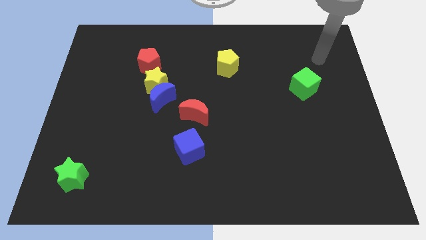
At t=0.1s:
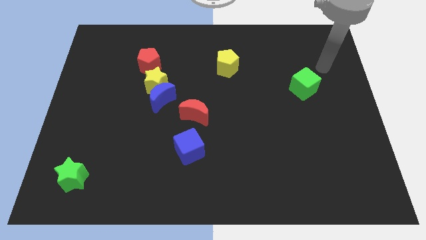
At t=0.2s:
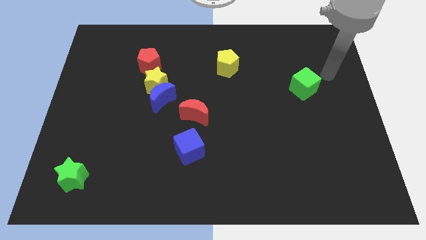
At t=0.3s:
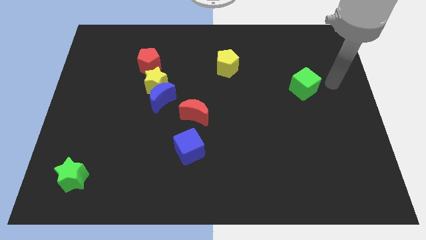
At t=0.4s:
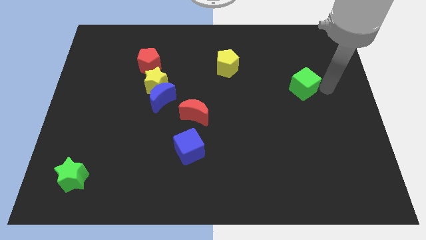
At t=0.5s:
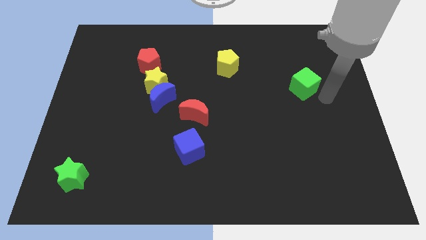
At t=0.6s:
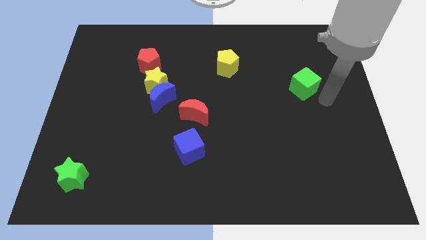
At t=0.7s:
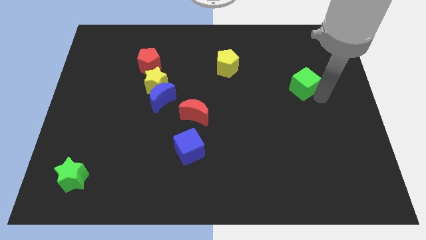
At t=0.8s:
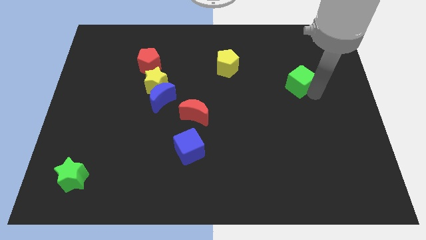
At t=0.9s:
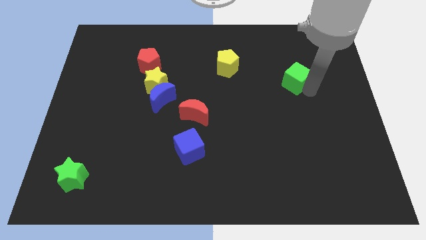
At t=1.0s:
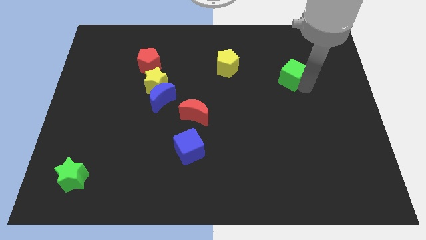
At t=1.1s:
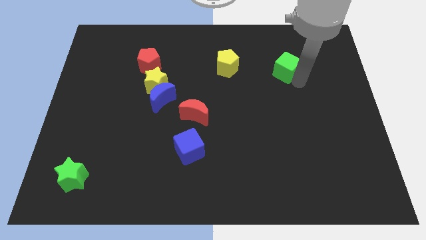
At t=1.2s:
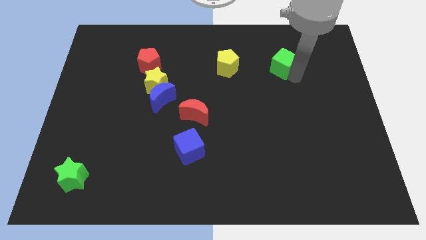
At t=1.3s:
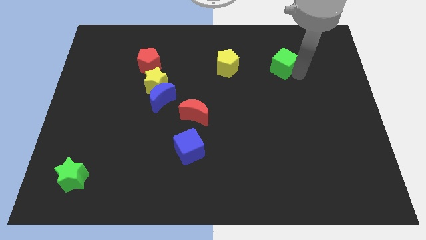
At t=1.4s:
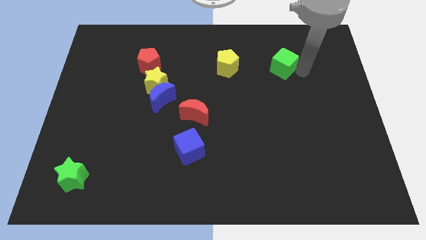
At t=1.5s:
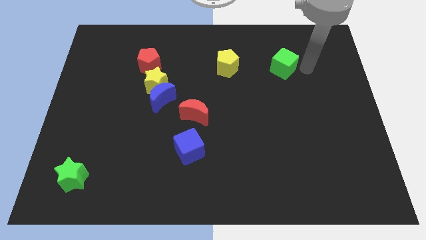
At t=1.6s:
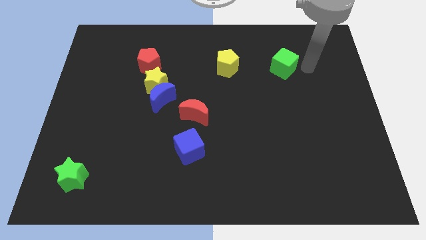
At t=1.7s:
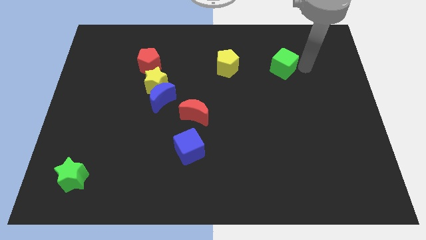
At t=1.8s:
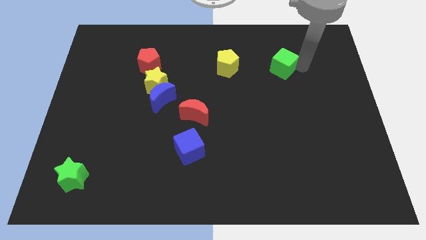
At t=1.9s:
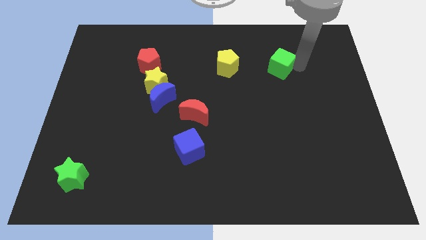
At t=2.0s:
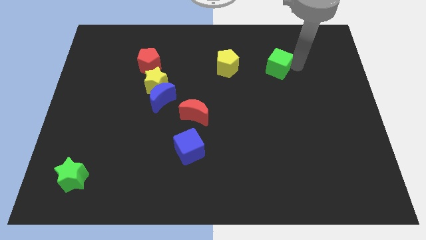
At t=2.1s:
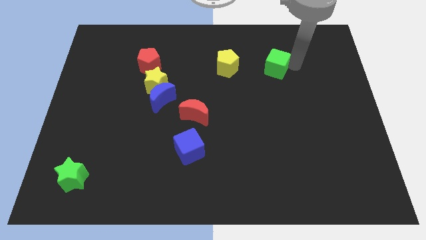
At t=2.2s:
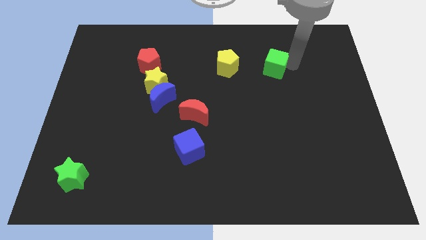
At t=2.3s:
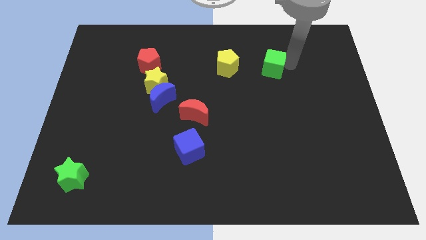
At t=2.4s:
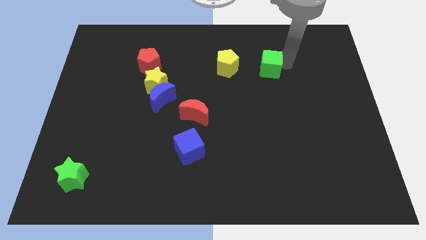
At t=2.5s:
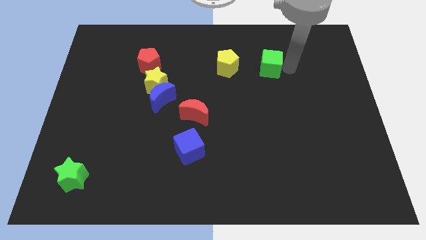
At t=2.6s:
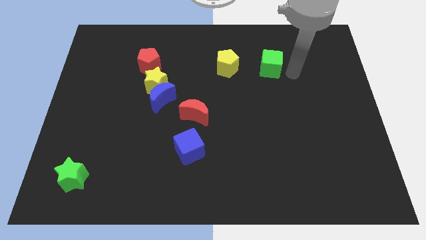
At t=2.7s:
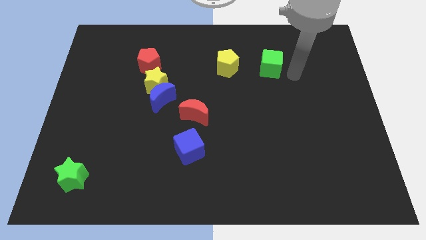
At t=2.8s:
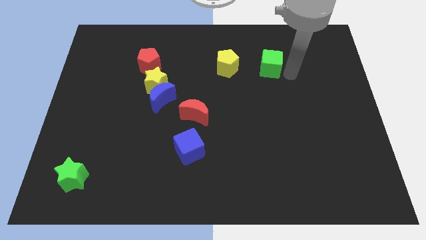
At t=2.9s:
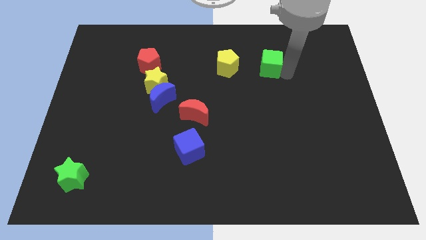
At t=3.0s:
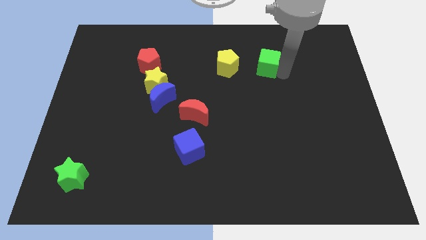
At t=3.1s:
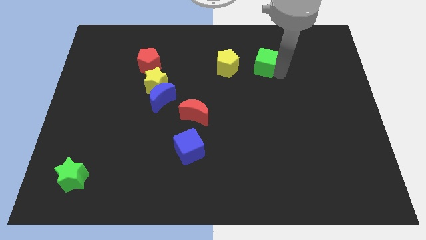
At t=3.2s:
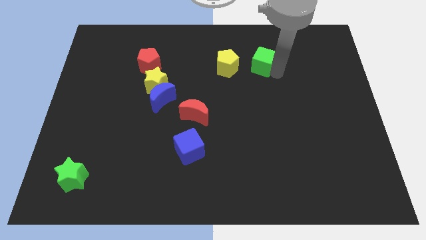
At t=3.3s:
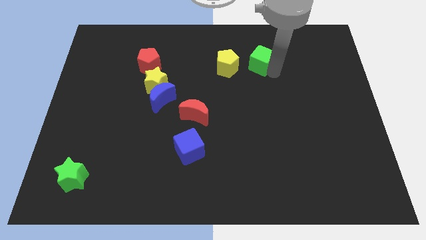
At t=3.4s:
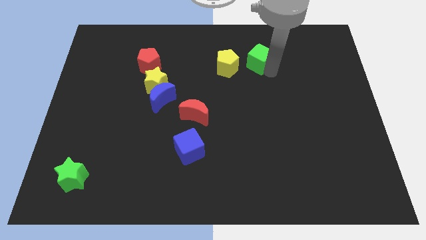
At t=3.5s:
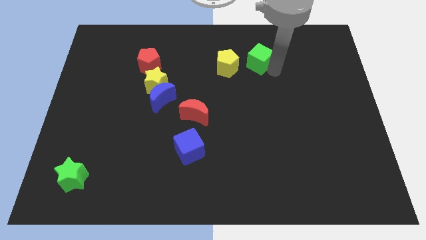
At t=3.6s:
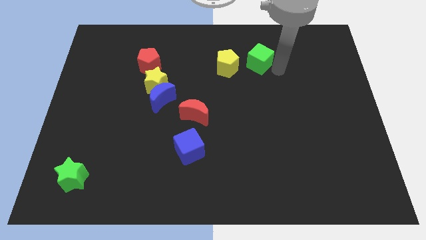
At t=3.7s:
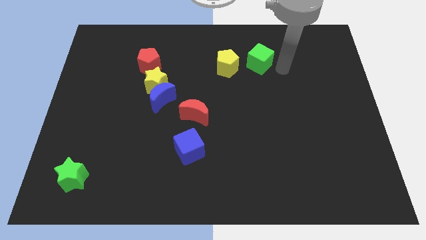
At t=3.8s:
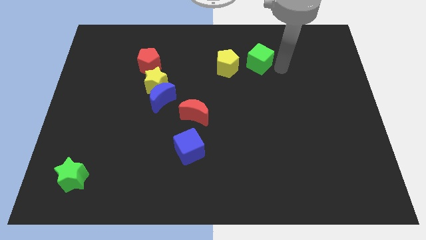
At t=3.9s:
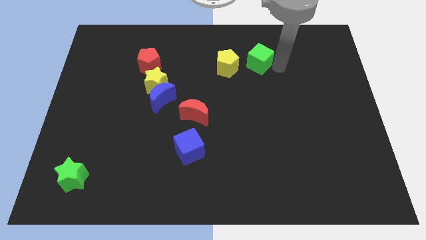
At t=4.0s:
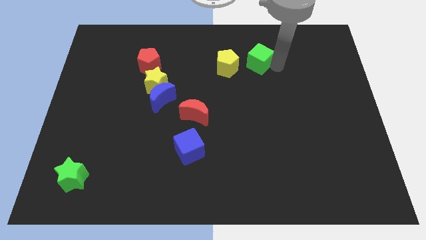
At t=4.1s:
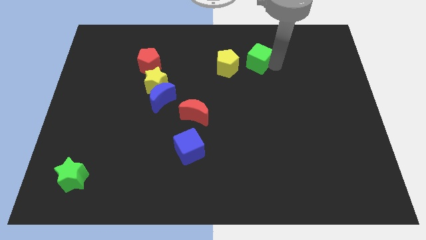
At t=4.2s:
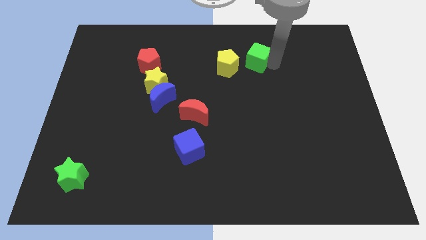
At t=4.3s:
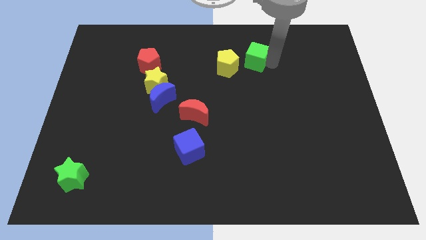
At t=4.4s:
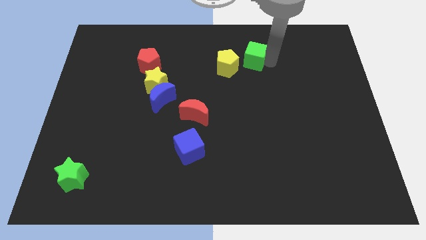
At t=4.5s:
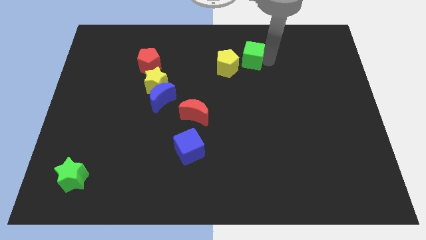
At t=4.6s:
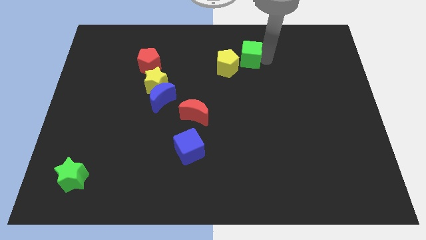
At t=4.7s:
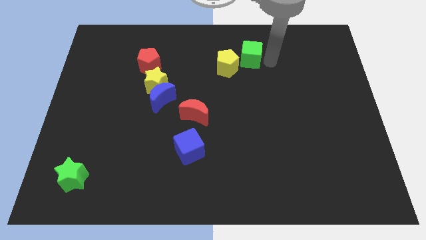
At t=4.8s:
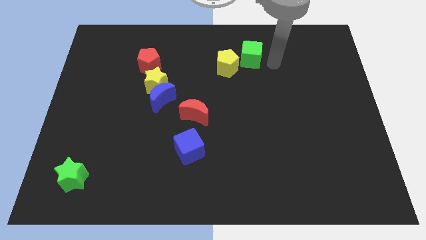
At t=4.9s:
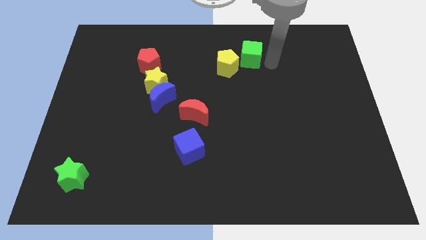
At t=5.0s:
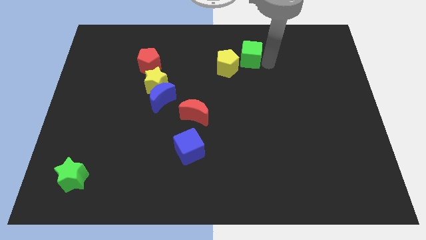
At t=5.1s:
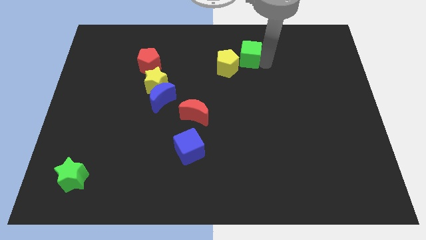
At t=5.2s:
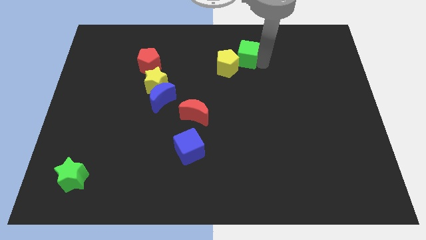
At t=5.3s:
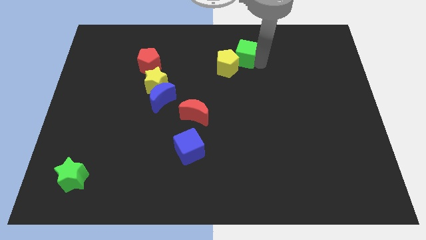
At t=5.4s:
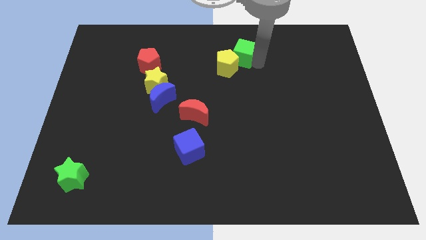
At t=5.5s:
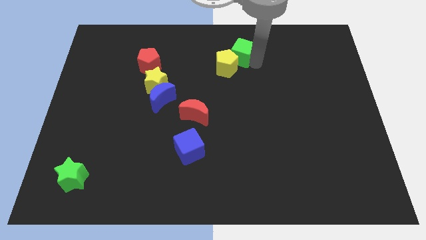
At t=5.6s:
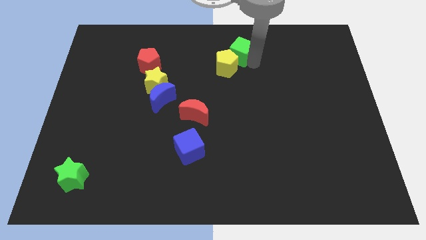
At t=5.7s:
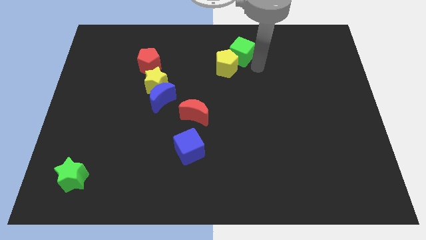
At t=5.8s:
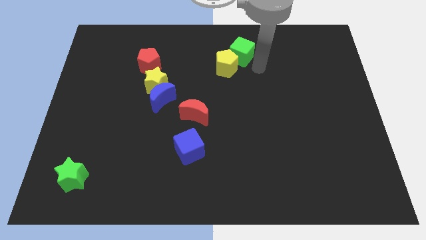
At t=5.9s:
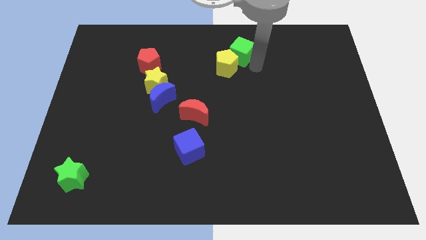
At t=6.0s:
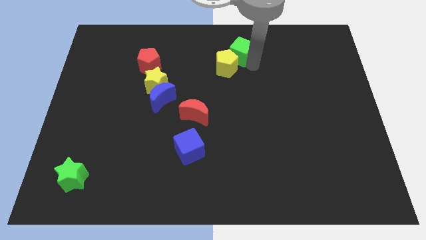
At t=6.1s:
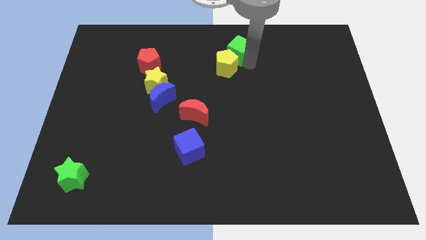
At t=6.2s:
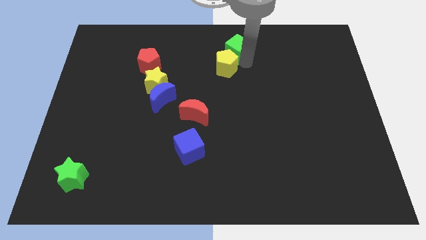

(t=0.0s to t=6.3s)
slide the green cube to the towards your base
